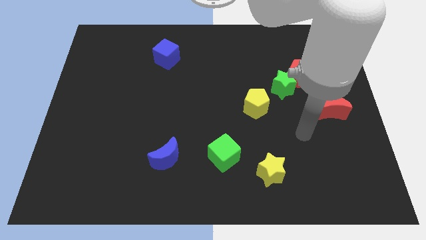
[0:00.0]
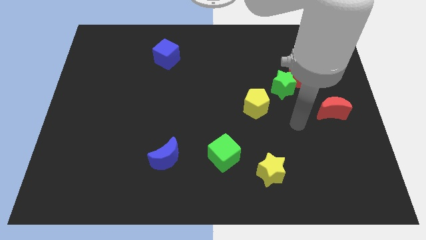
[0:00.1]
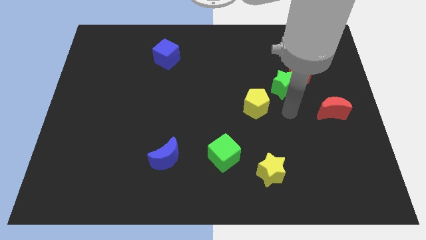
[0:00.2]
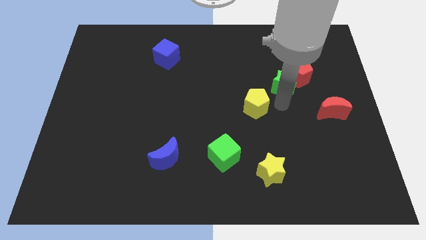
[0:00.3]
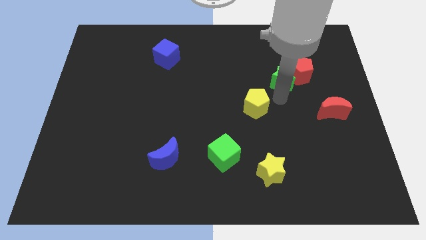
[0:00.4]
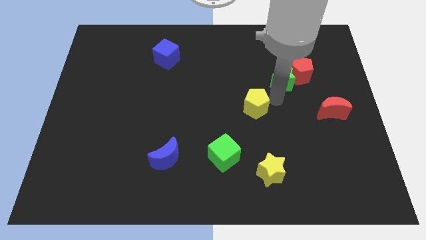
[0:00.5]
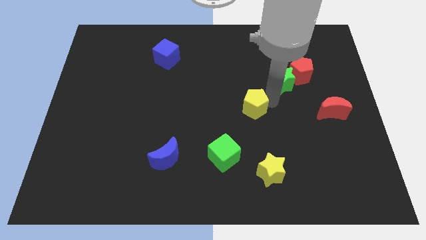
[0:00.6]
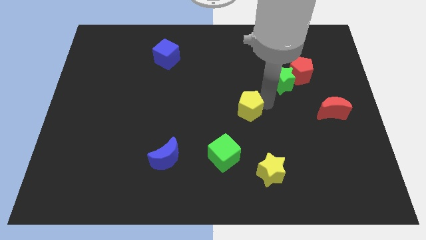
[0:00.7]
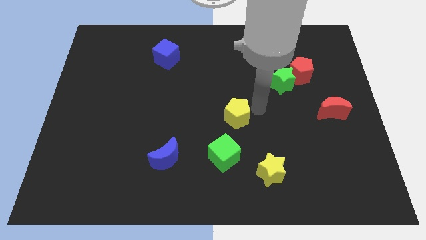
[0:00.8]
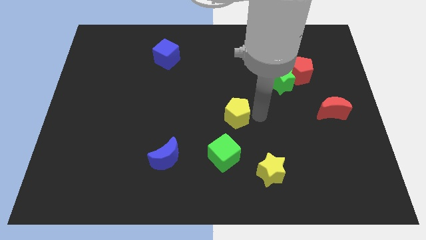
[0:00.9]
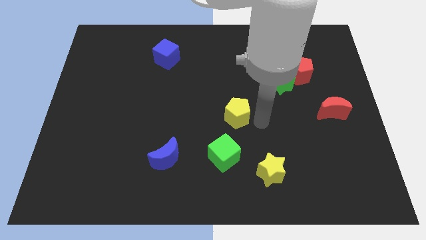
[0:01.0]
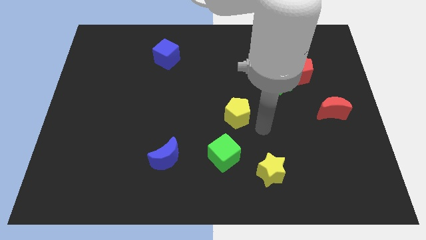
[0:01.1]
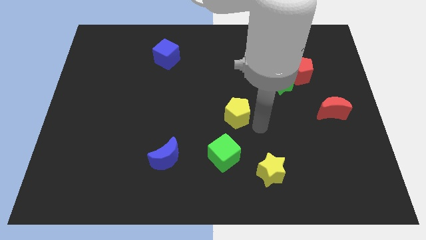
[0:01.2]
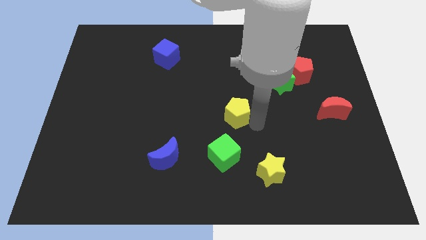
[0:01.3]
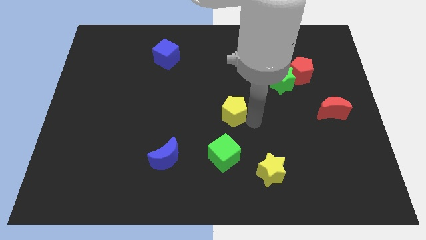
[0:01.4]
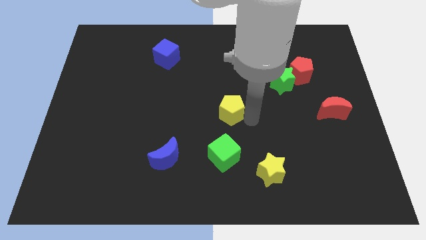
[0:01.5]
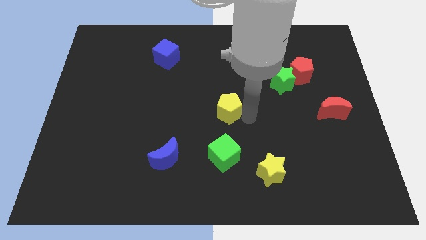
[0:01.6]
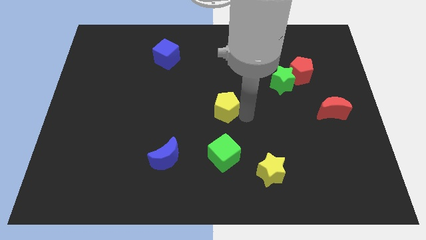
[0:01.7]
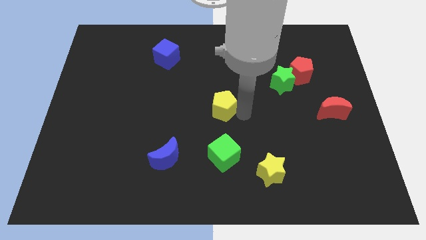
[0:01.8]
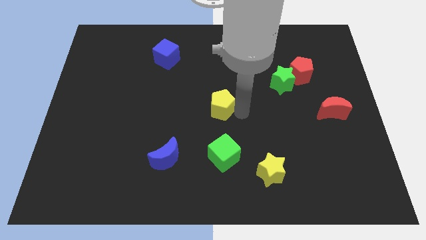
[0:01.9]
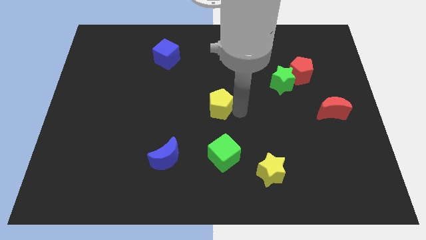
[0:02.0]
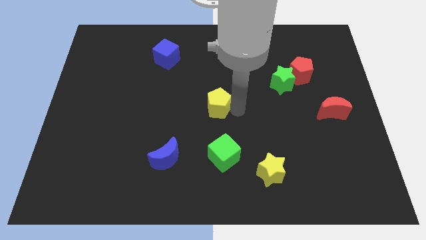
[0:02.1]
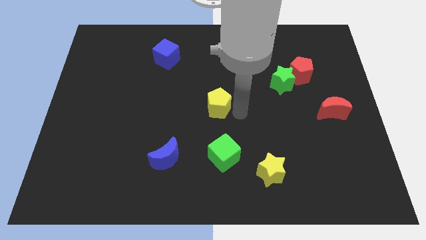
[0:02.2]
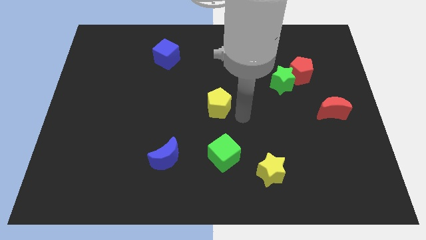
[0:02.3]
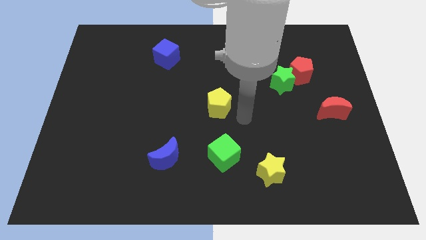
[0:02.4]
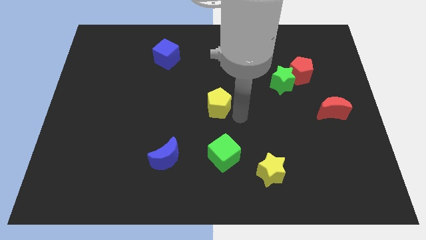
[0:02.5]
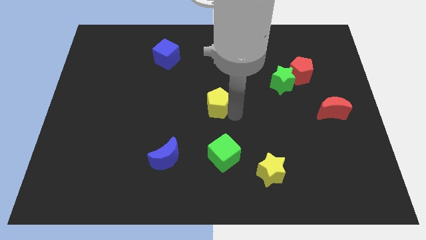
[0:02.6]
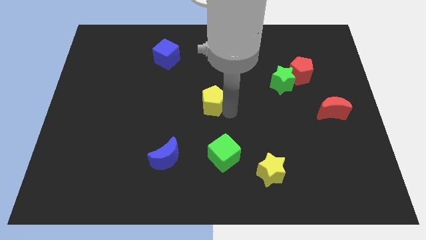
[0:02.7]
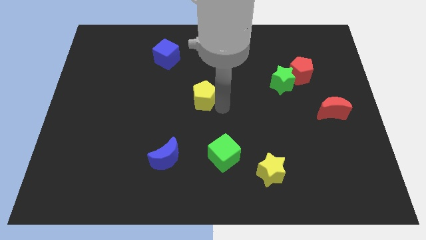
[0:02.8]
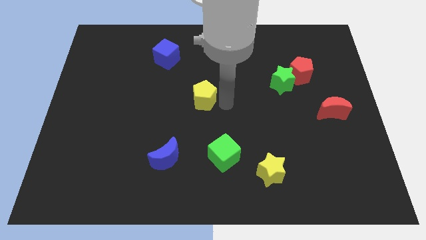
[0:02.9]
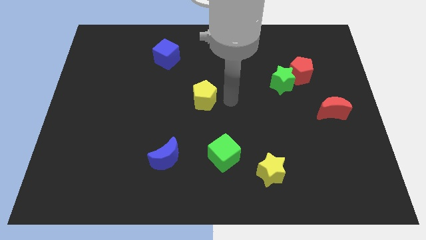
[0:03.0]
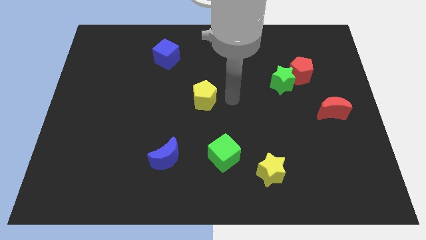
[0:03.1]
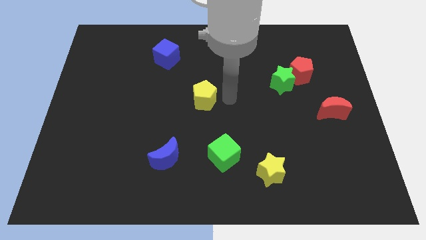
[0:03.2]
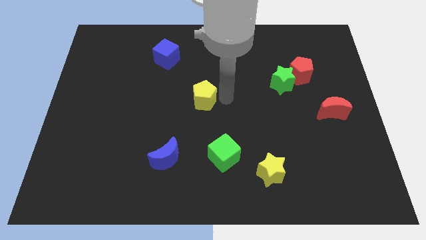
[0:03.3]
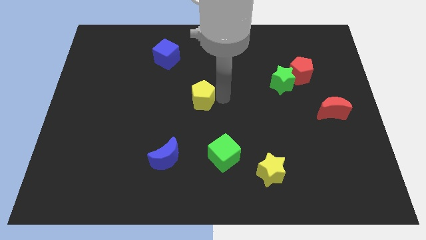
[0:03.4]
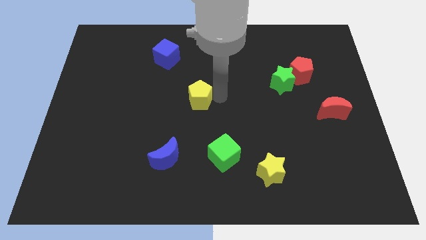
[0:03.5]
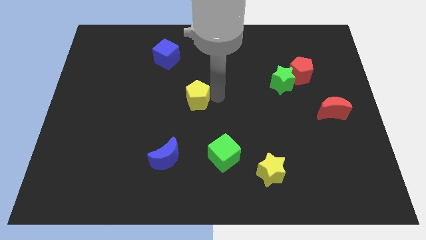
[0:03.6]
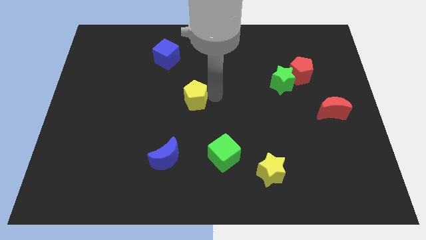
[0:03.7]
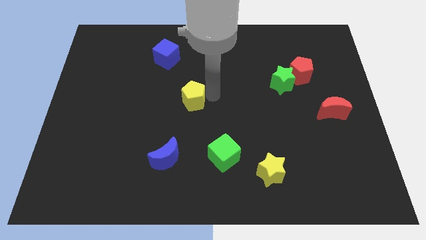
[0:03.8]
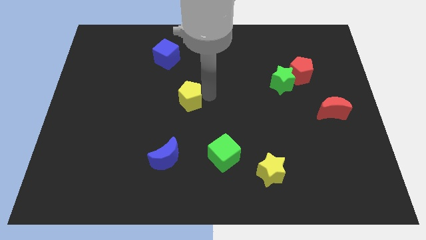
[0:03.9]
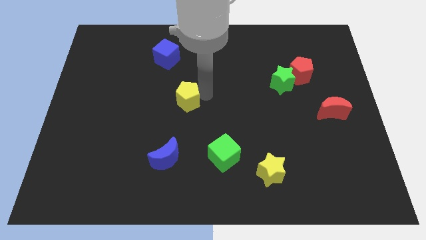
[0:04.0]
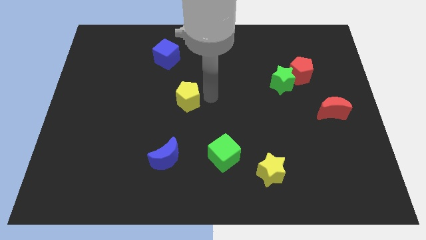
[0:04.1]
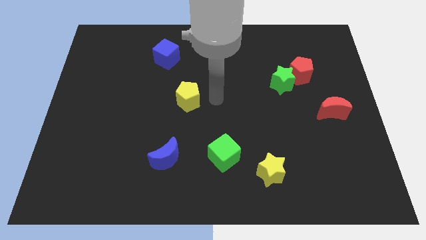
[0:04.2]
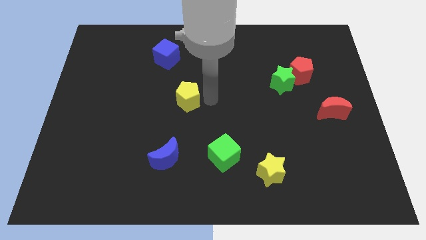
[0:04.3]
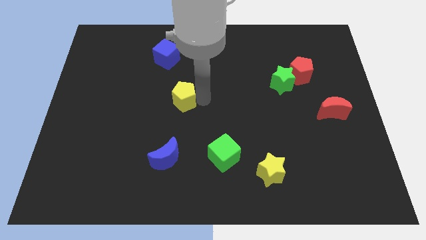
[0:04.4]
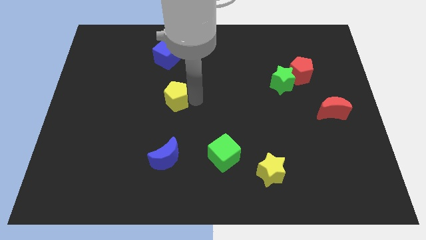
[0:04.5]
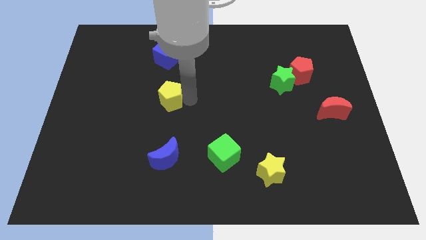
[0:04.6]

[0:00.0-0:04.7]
push the yellow pentagon to the left

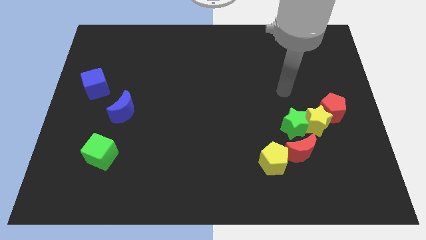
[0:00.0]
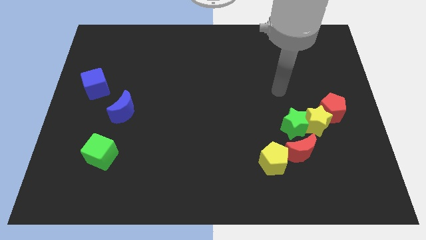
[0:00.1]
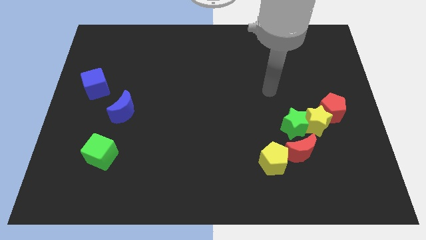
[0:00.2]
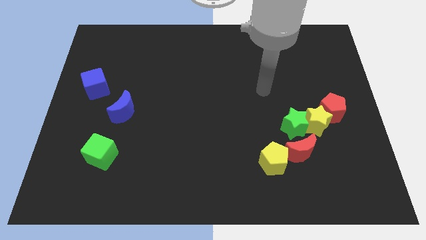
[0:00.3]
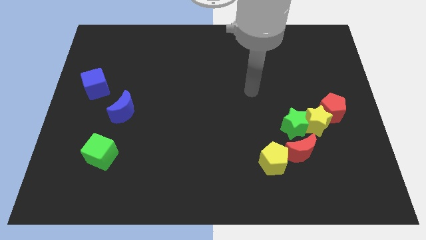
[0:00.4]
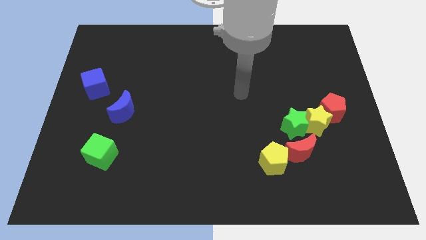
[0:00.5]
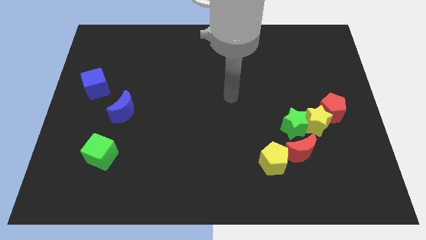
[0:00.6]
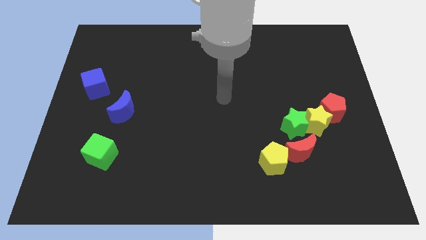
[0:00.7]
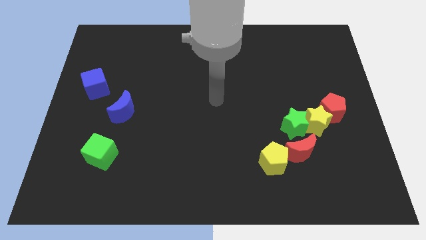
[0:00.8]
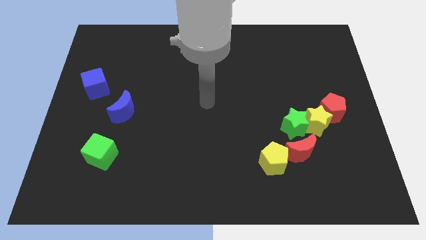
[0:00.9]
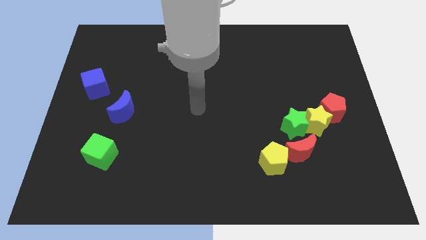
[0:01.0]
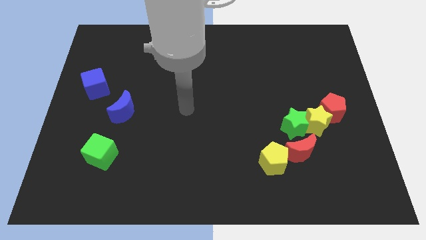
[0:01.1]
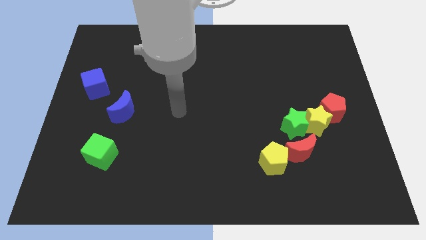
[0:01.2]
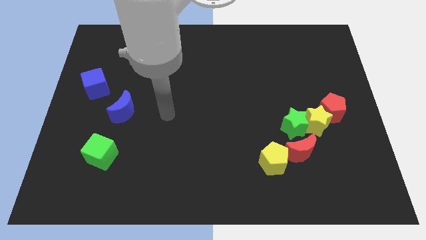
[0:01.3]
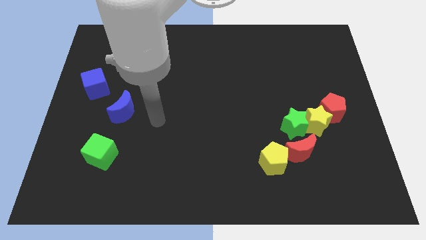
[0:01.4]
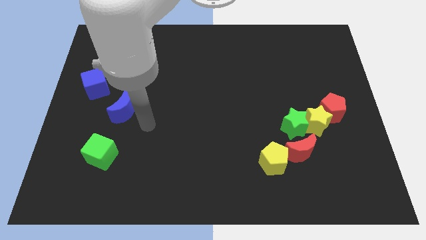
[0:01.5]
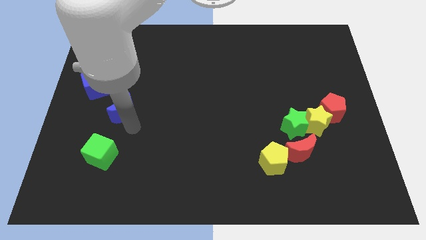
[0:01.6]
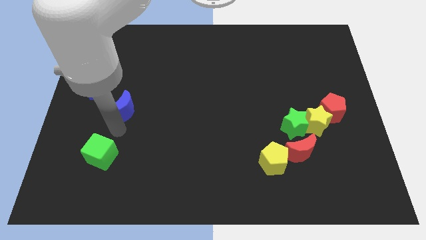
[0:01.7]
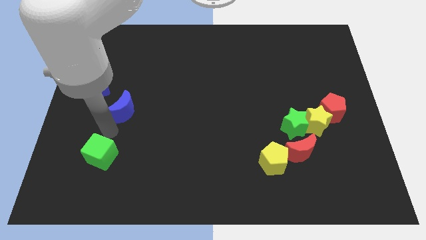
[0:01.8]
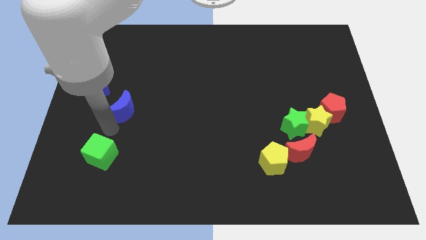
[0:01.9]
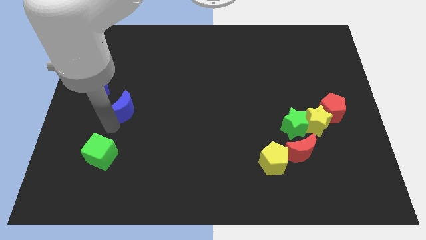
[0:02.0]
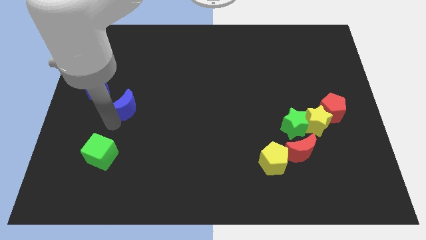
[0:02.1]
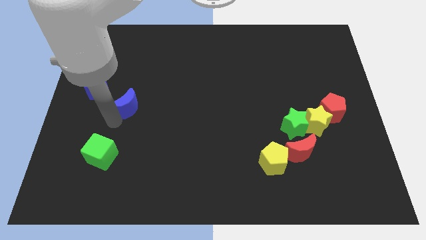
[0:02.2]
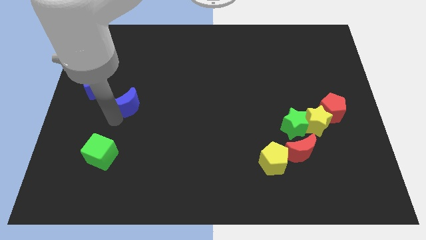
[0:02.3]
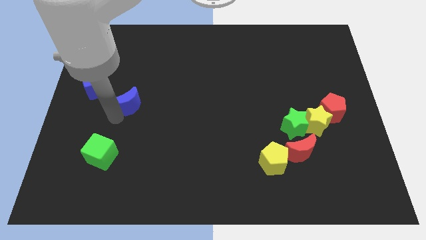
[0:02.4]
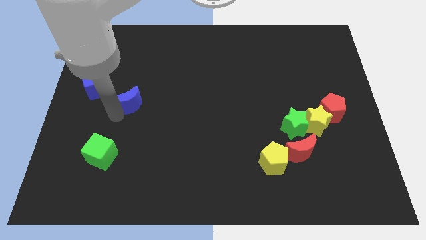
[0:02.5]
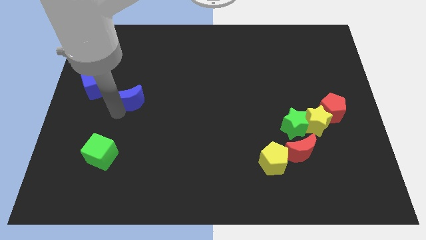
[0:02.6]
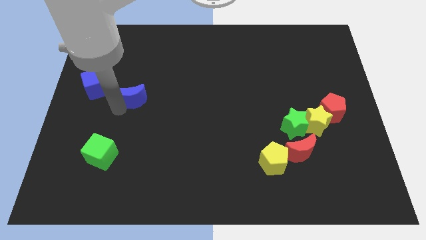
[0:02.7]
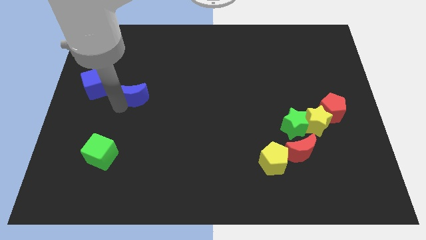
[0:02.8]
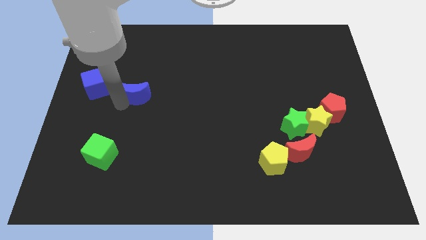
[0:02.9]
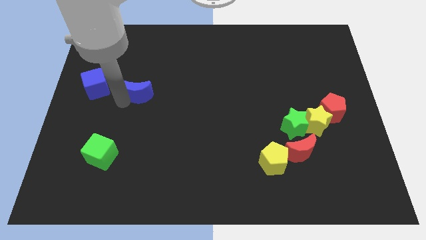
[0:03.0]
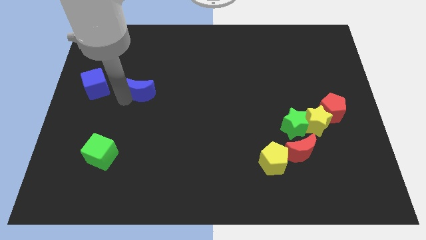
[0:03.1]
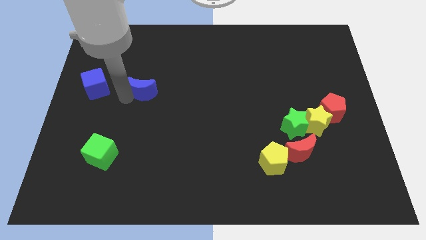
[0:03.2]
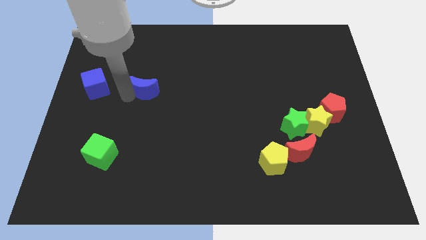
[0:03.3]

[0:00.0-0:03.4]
slightly slide the blue moon upwards and then to the right
